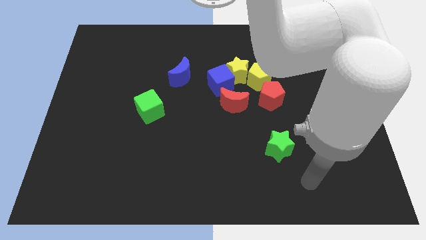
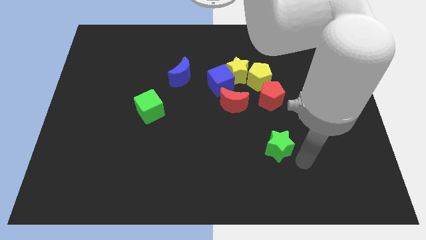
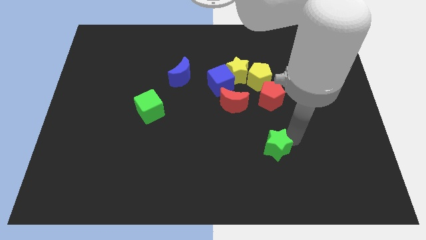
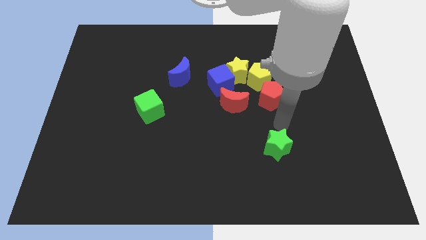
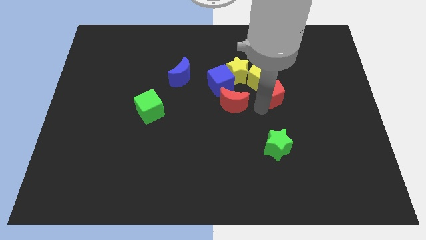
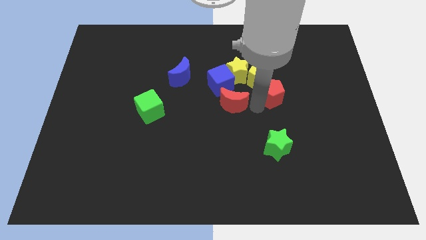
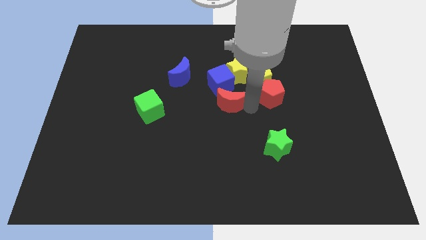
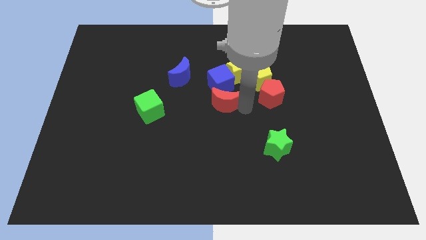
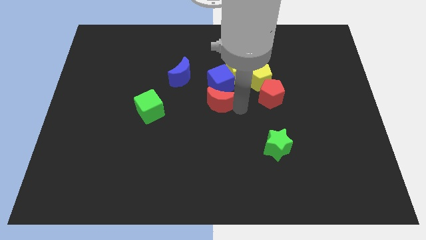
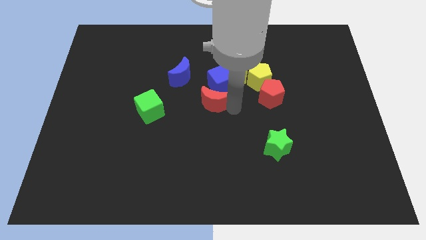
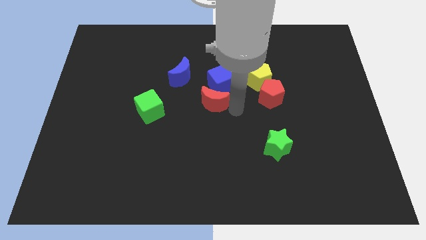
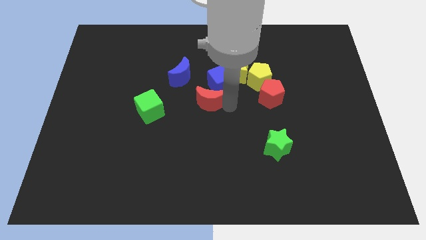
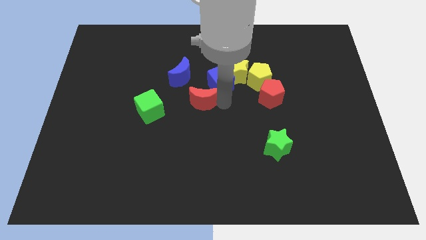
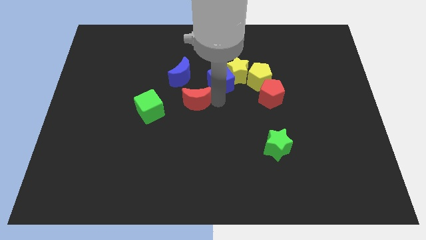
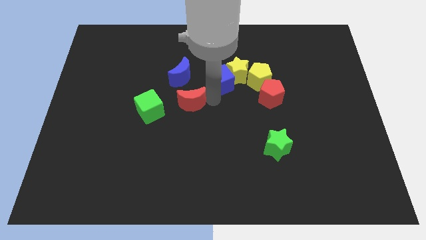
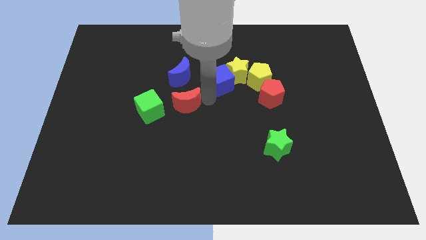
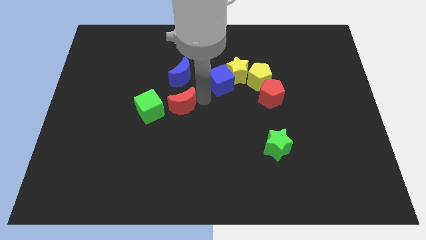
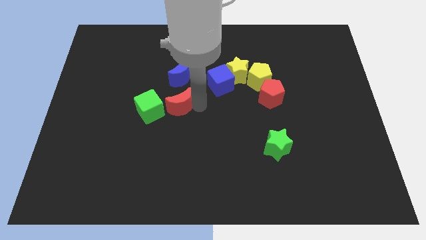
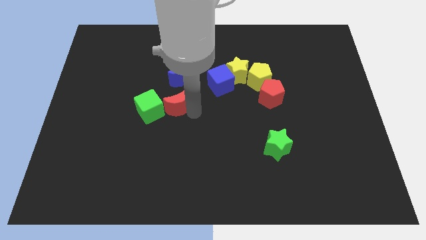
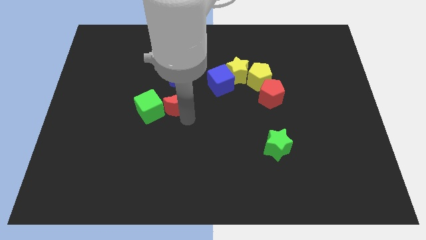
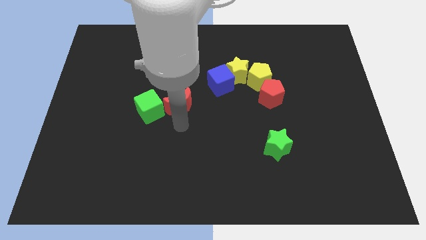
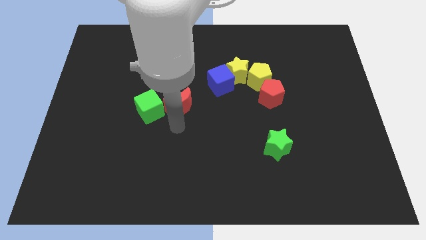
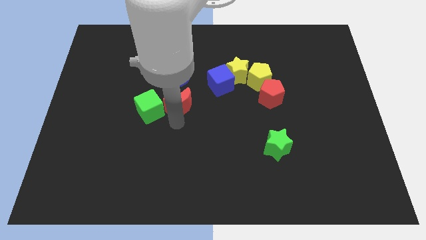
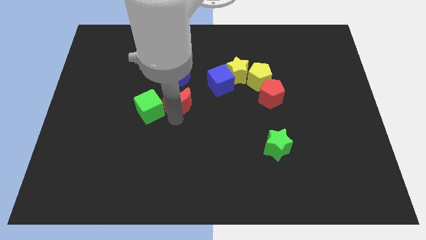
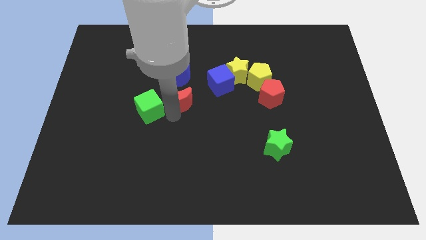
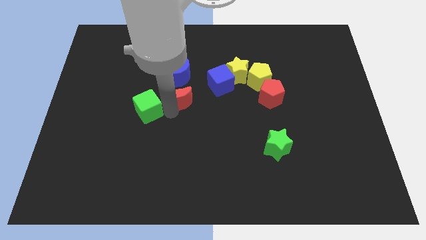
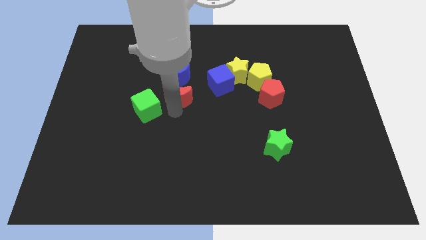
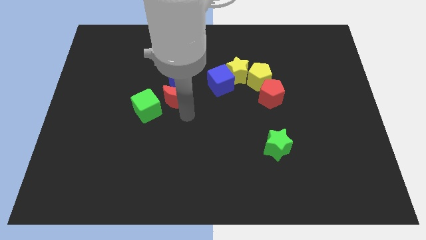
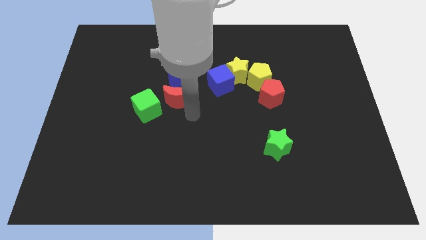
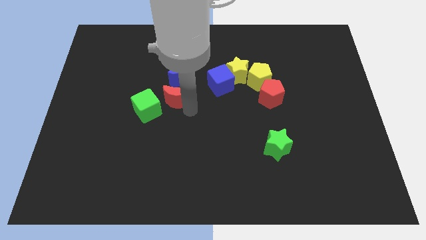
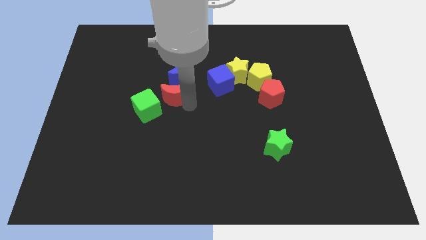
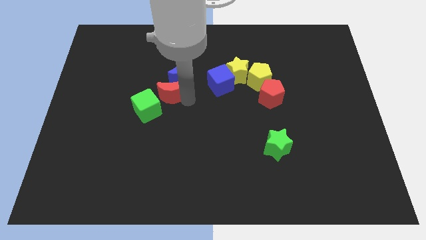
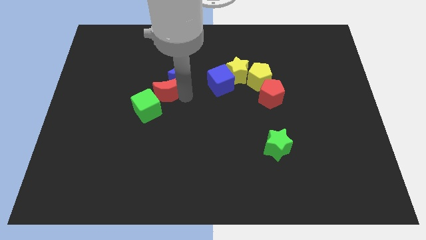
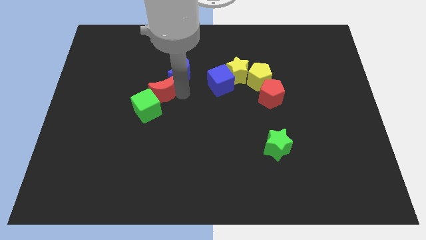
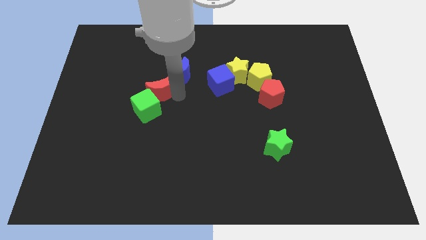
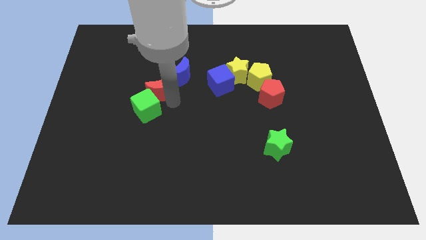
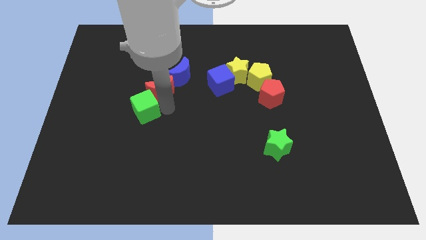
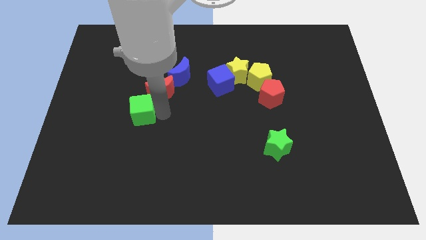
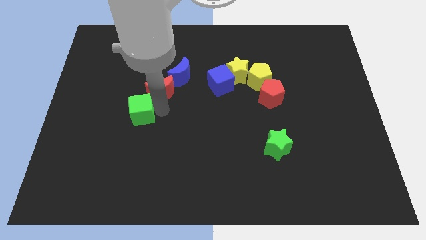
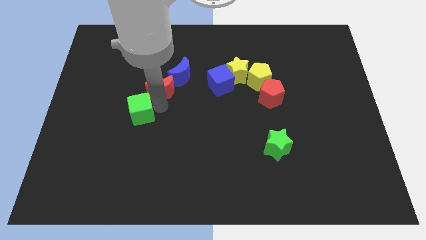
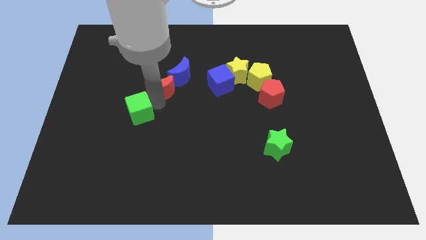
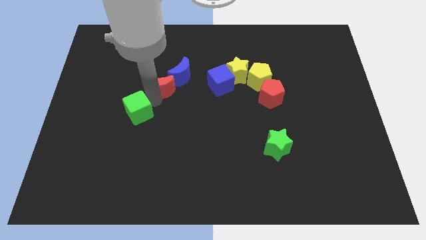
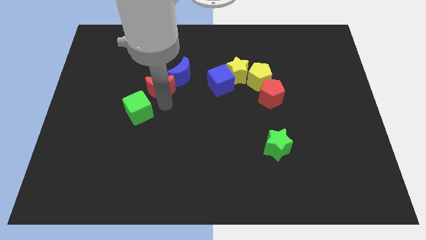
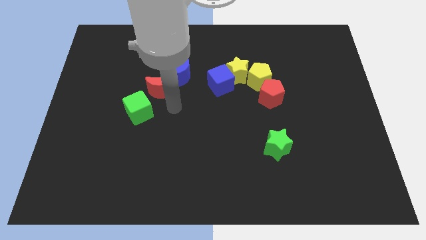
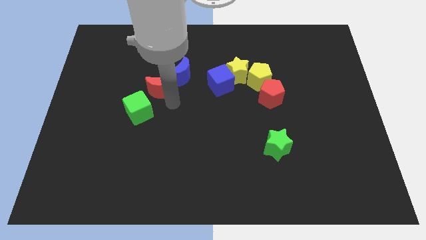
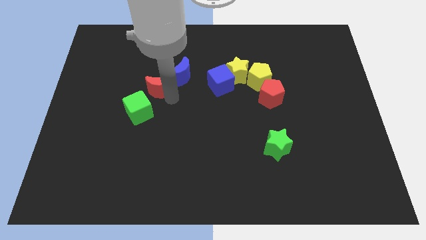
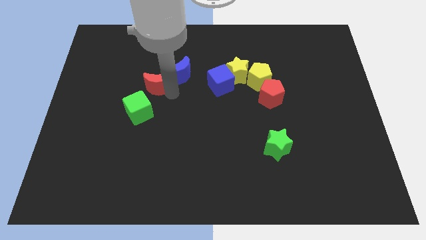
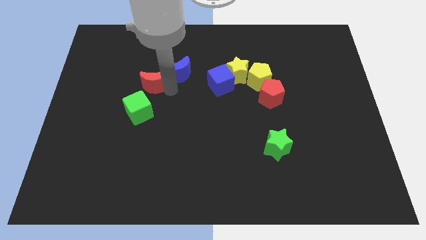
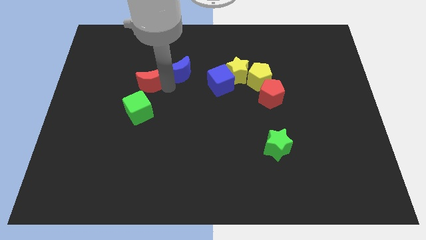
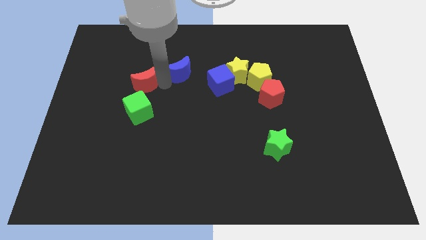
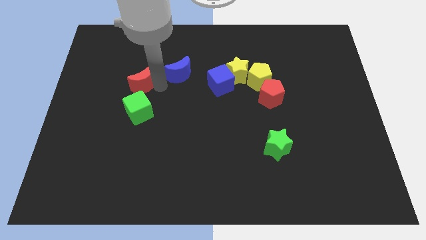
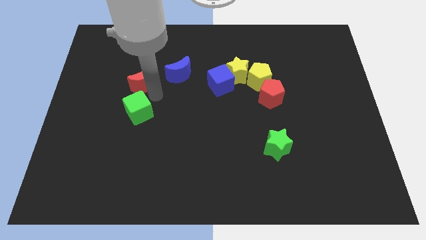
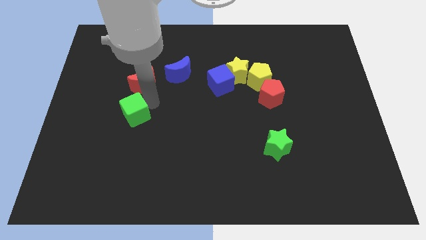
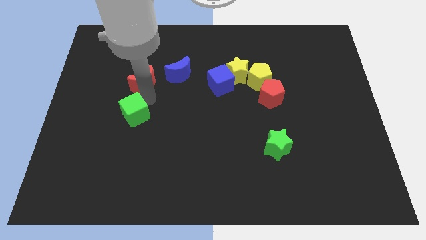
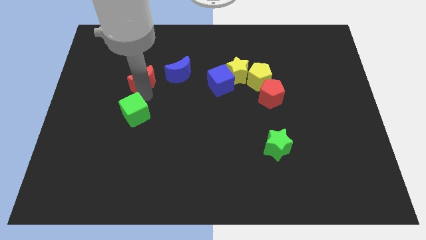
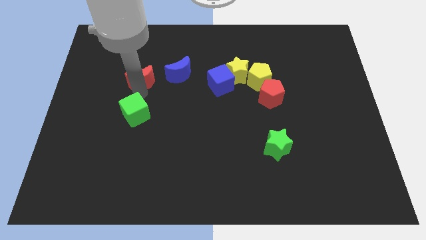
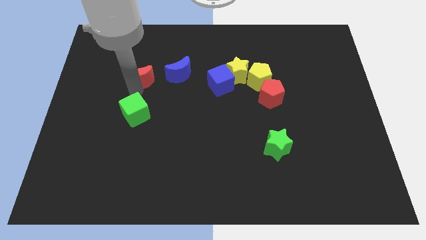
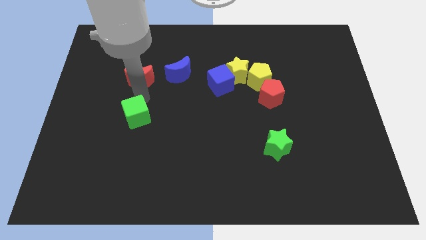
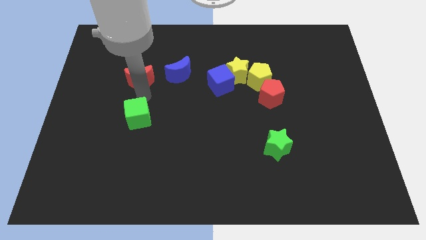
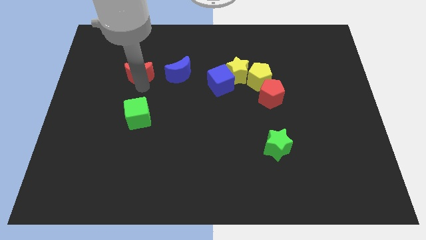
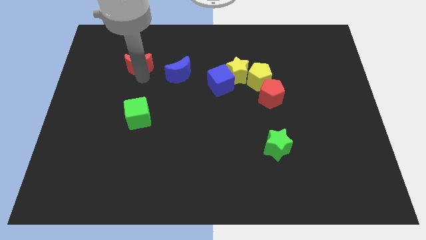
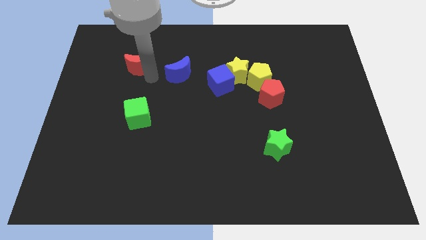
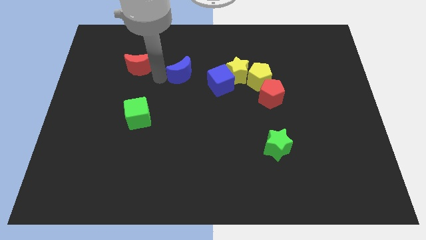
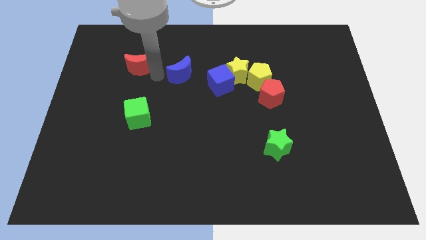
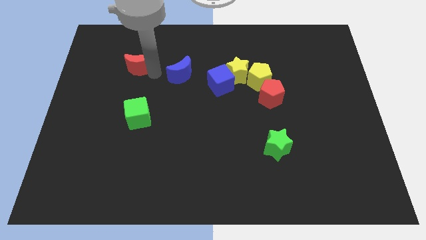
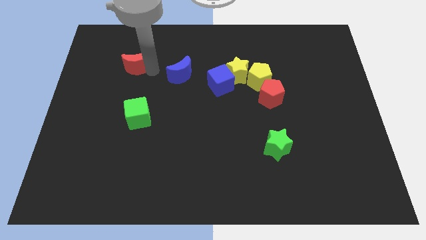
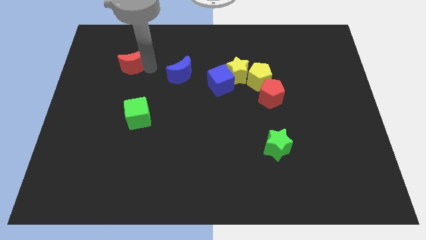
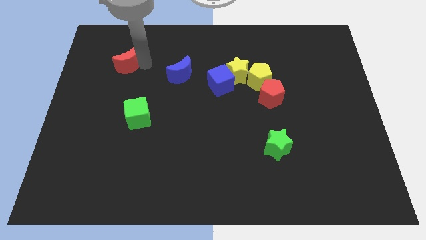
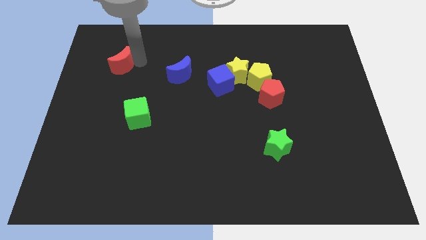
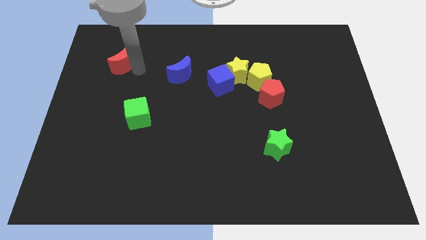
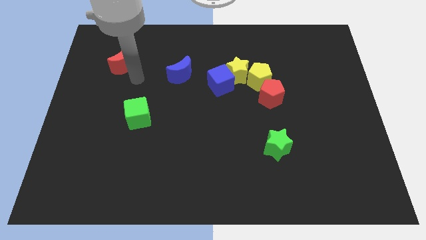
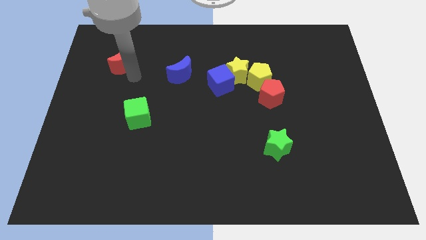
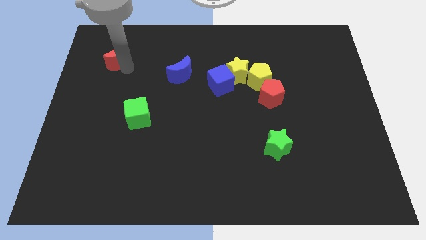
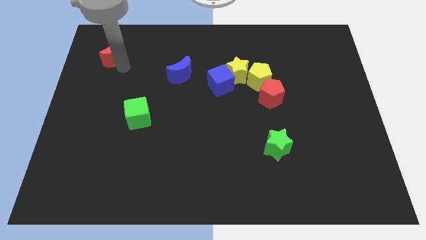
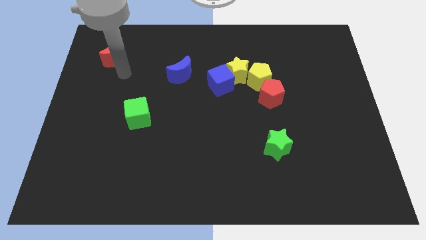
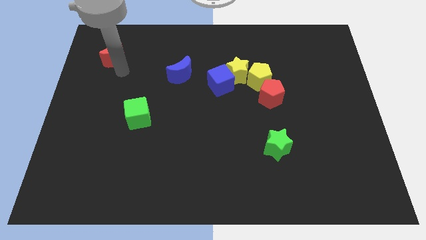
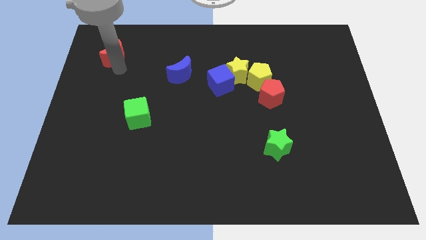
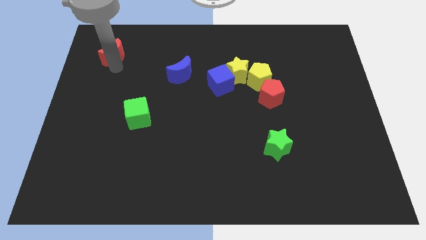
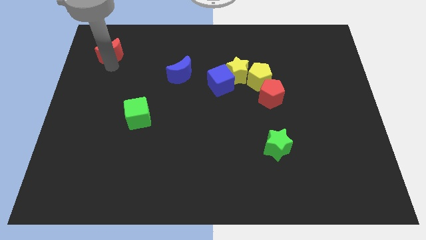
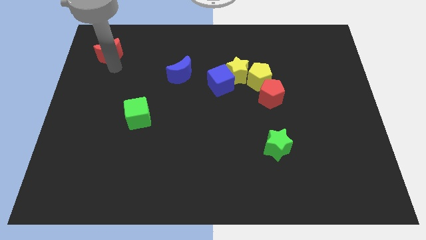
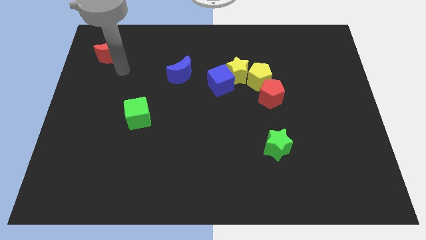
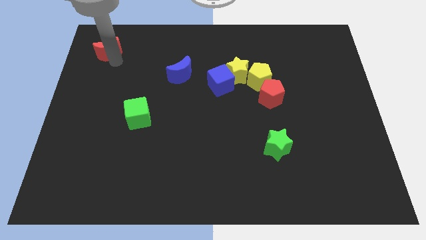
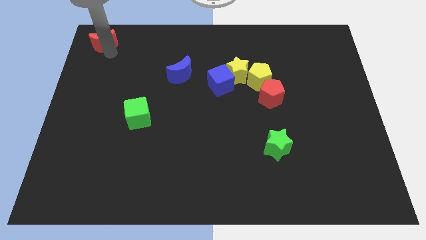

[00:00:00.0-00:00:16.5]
slide the red moon to the top left
